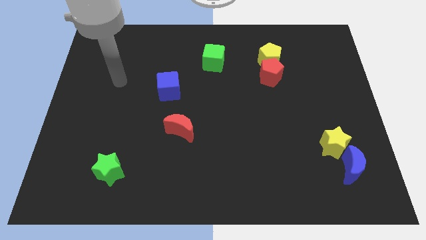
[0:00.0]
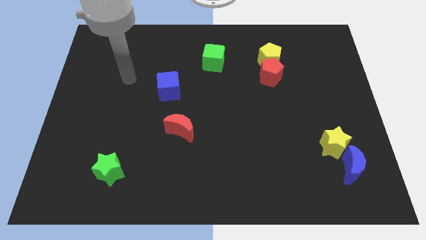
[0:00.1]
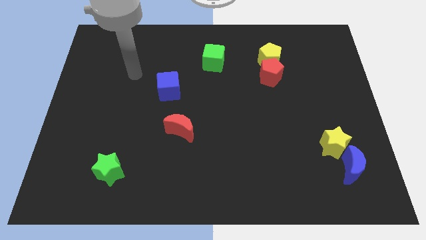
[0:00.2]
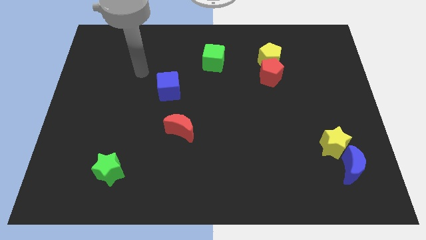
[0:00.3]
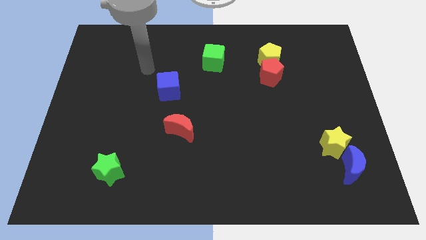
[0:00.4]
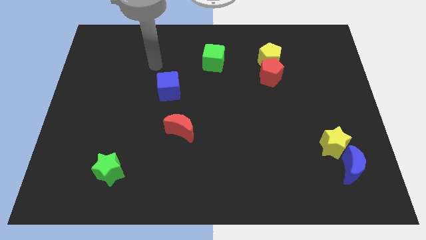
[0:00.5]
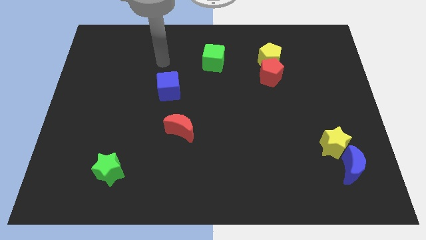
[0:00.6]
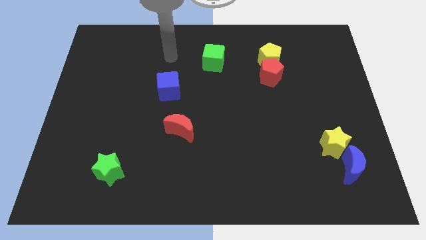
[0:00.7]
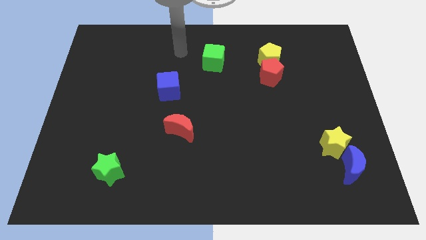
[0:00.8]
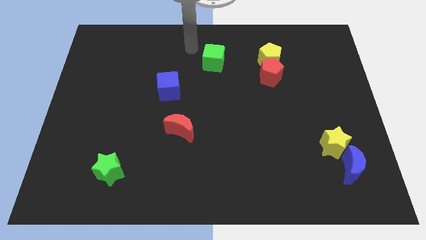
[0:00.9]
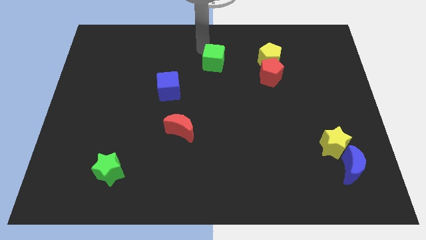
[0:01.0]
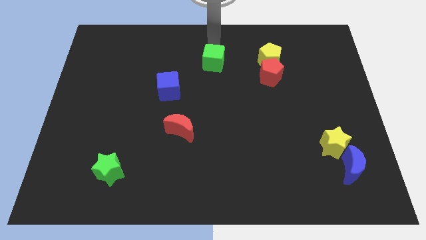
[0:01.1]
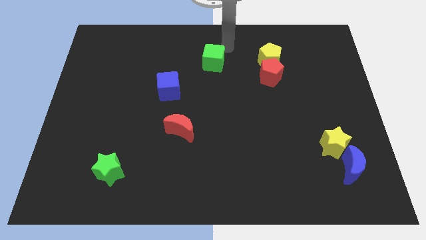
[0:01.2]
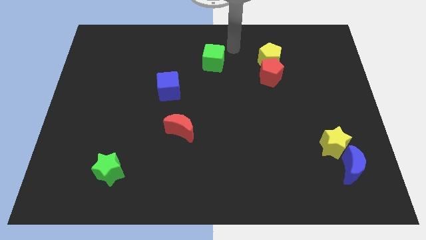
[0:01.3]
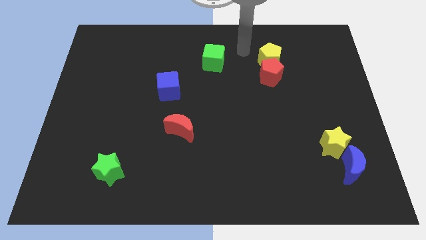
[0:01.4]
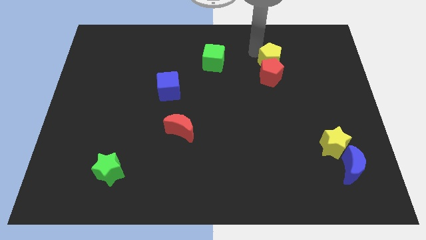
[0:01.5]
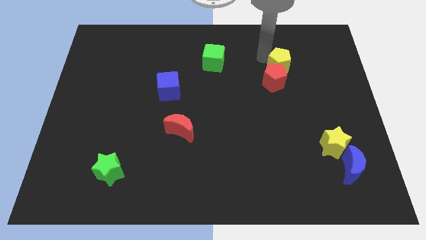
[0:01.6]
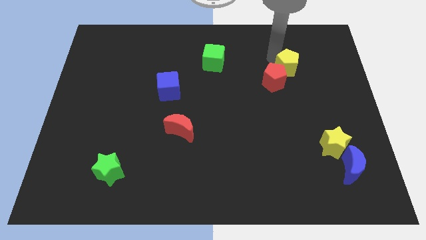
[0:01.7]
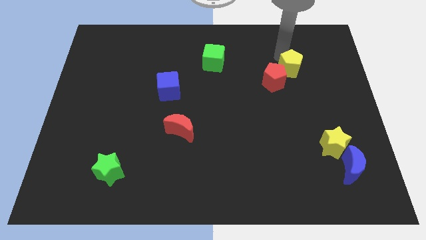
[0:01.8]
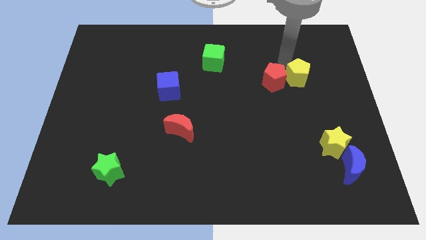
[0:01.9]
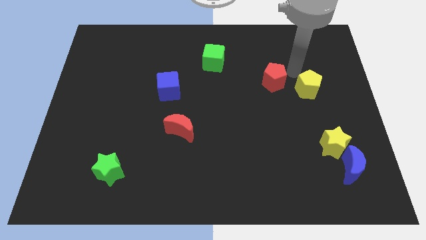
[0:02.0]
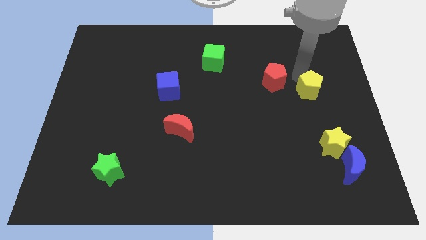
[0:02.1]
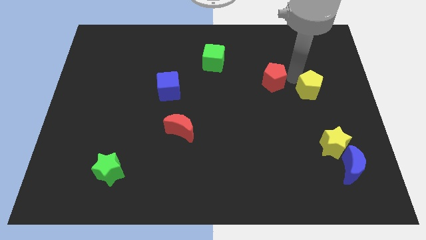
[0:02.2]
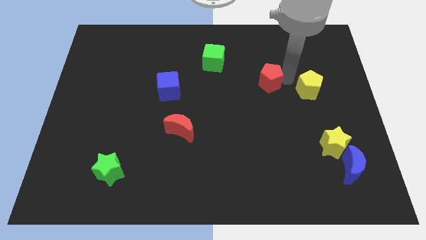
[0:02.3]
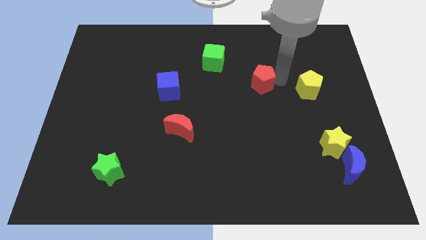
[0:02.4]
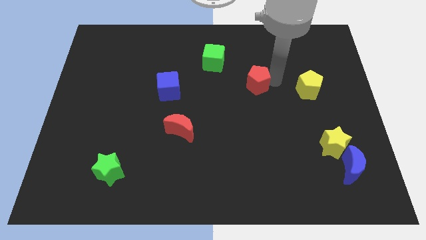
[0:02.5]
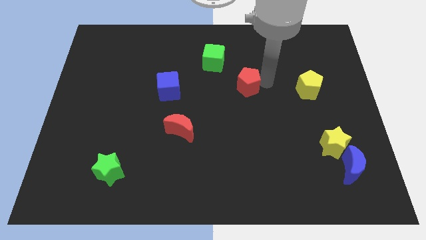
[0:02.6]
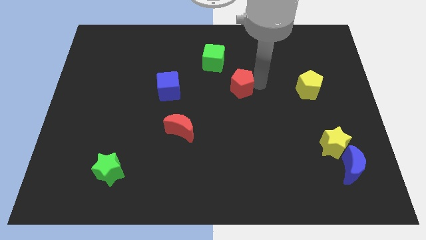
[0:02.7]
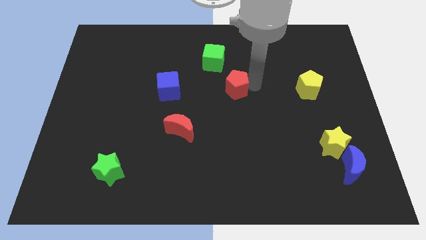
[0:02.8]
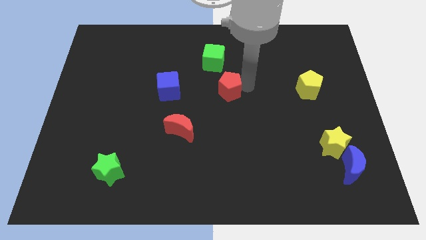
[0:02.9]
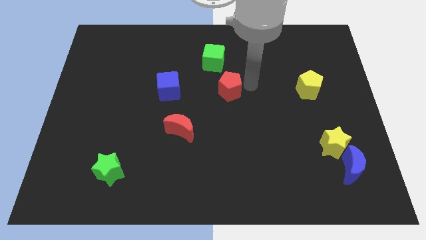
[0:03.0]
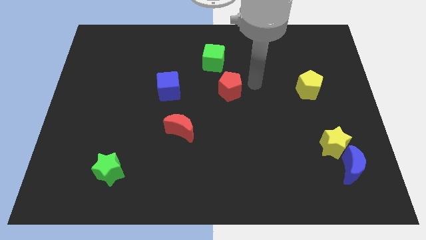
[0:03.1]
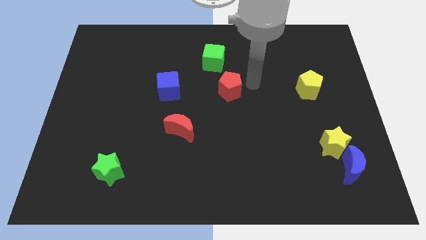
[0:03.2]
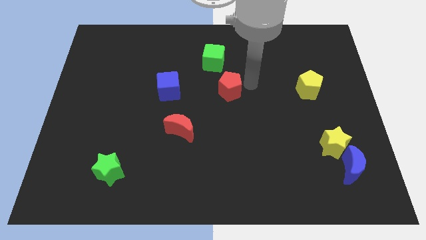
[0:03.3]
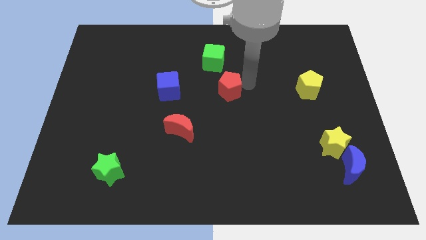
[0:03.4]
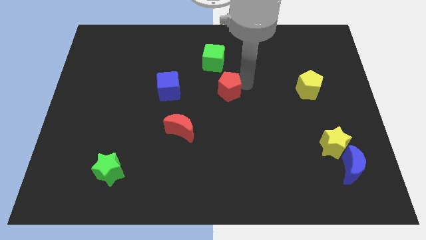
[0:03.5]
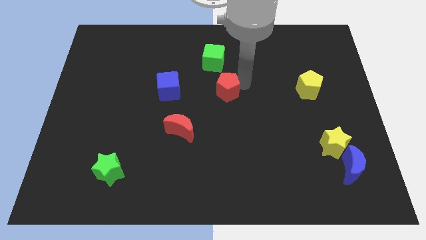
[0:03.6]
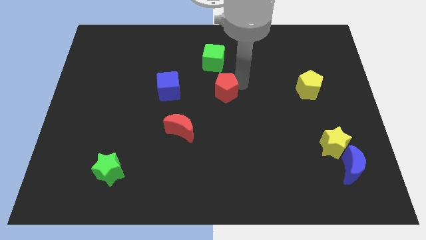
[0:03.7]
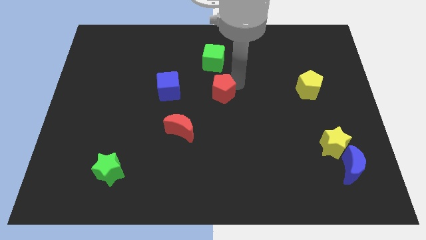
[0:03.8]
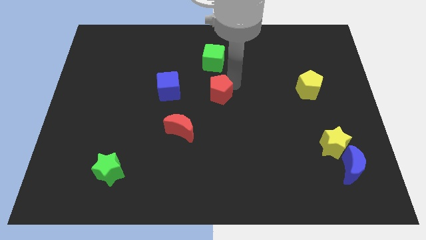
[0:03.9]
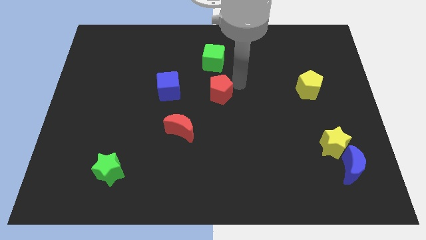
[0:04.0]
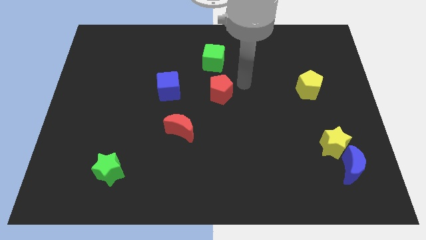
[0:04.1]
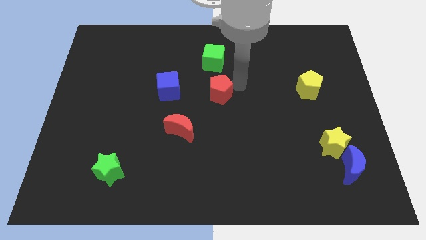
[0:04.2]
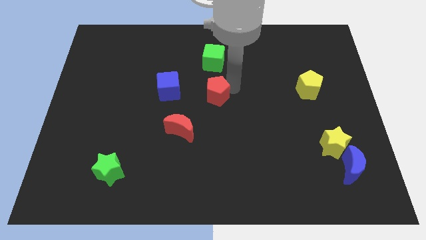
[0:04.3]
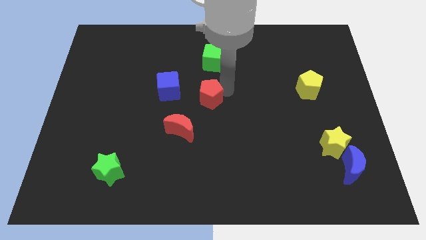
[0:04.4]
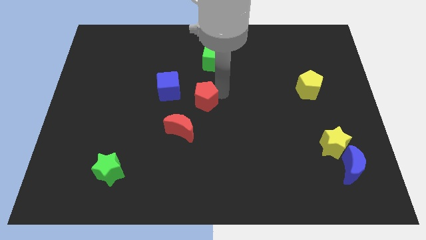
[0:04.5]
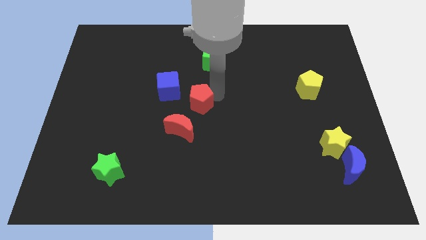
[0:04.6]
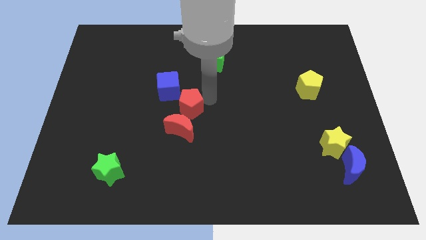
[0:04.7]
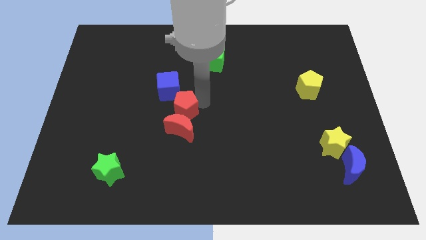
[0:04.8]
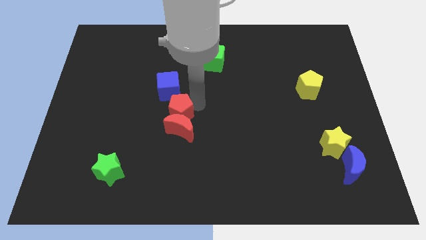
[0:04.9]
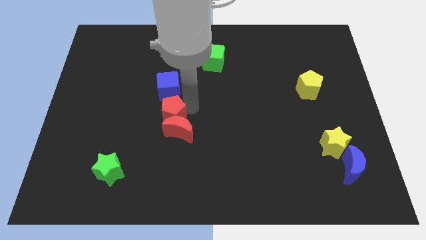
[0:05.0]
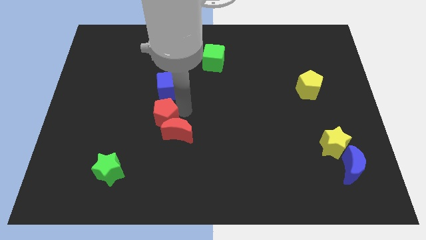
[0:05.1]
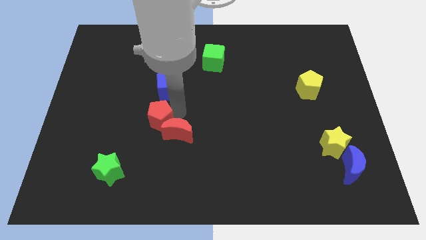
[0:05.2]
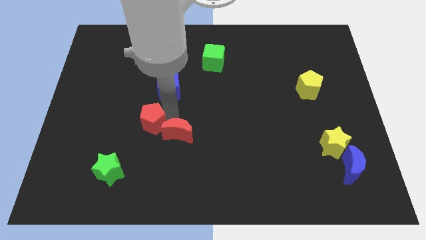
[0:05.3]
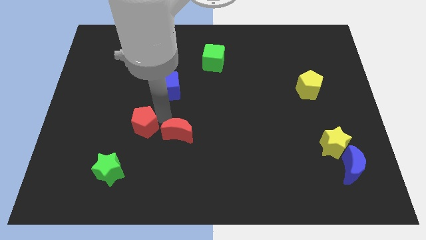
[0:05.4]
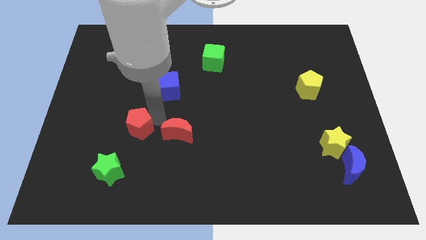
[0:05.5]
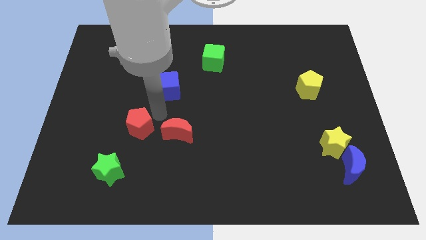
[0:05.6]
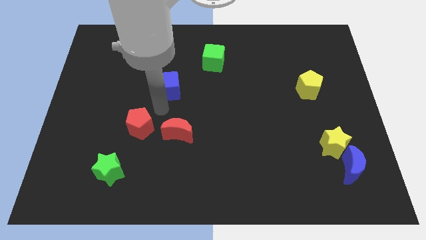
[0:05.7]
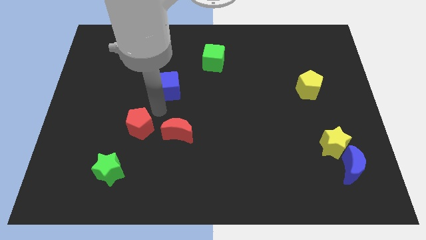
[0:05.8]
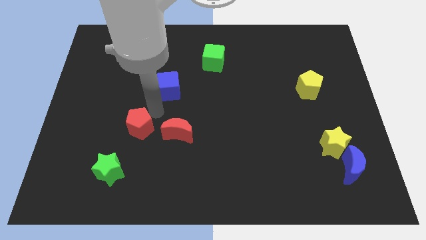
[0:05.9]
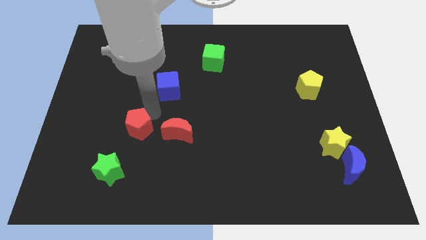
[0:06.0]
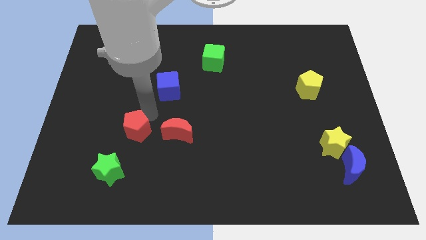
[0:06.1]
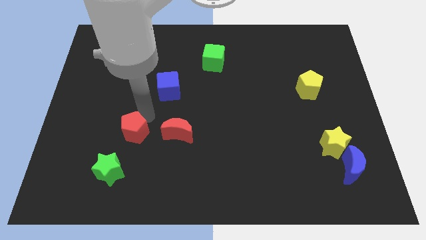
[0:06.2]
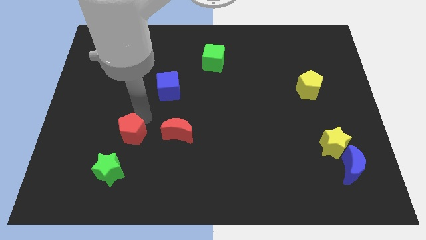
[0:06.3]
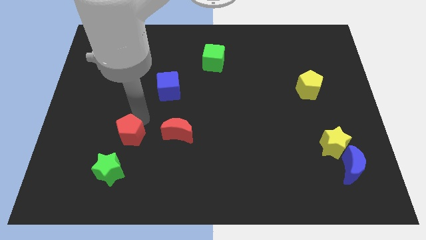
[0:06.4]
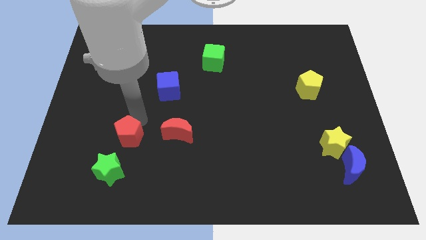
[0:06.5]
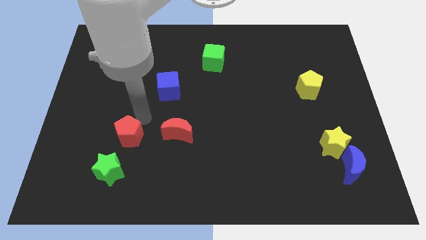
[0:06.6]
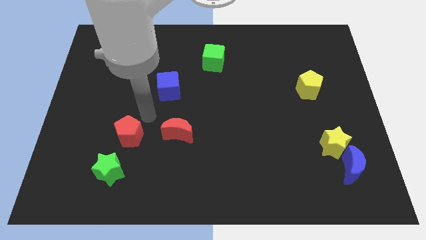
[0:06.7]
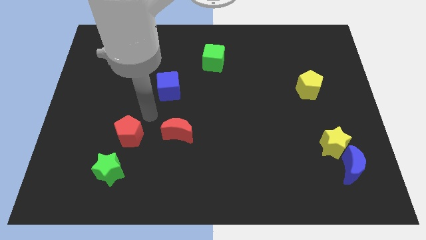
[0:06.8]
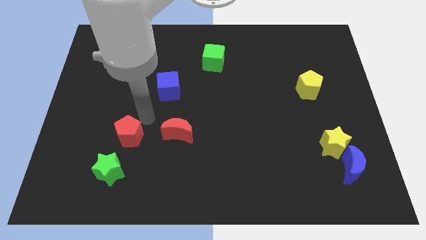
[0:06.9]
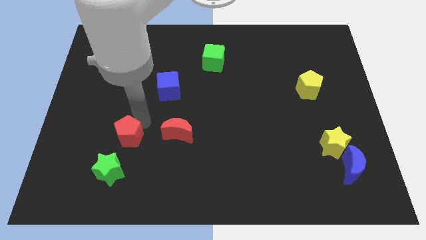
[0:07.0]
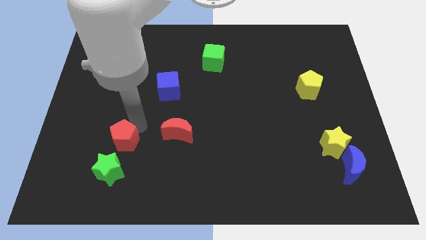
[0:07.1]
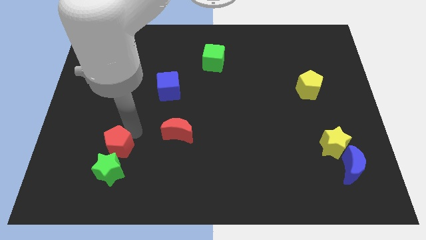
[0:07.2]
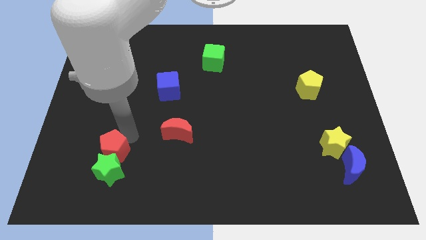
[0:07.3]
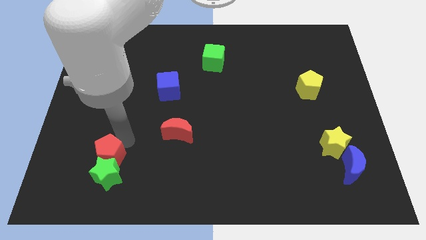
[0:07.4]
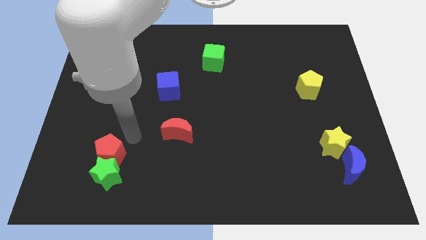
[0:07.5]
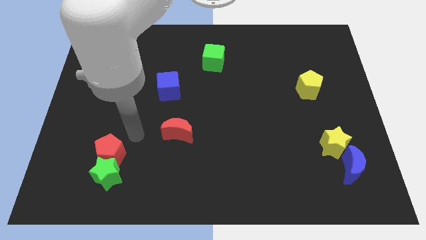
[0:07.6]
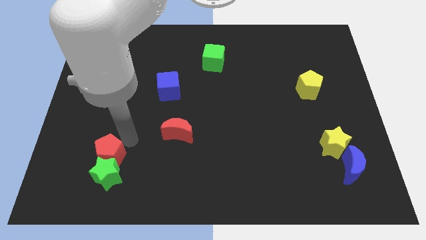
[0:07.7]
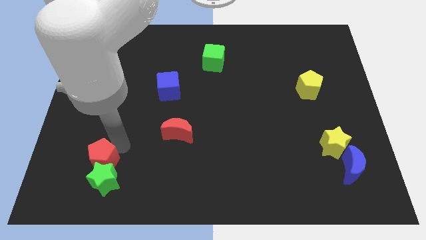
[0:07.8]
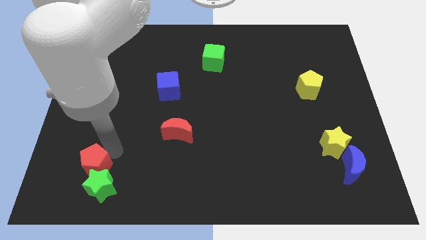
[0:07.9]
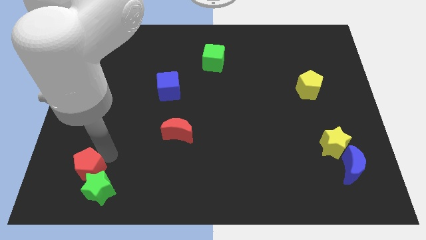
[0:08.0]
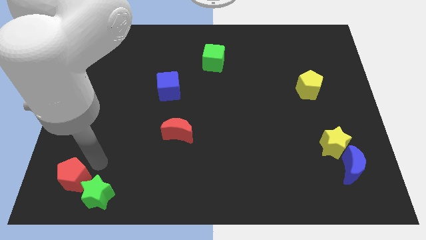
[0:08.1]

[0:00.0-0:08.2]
slide the red pentagon to the bottom left
